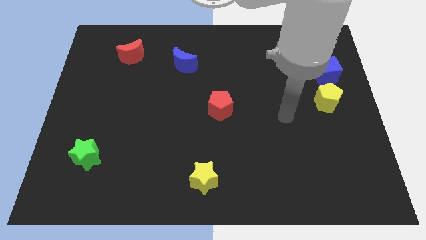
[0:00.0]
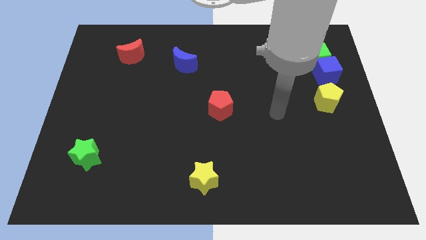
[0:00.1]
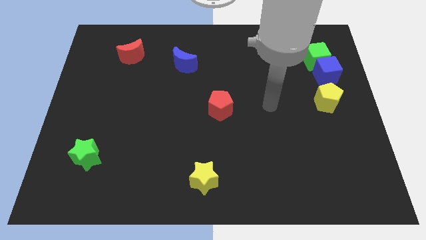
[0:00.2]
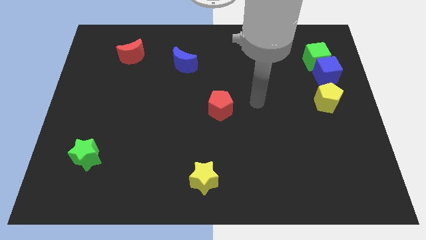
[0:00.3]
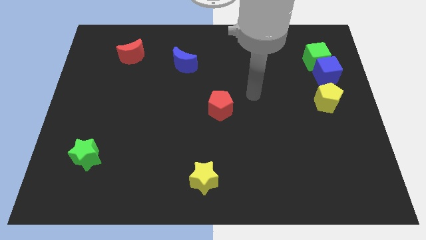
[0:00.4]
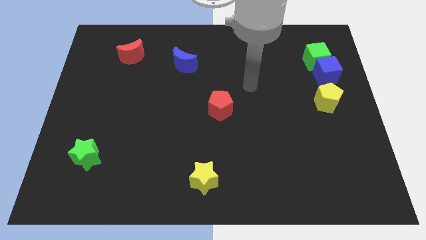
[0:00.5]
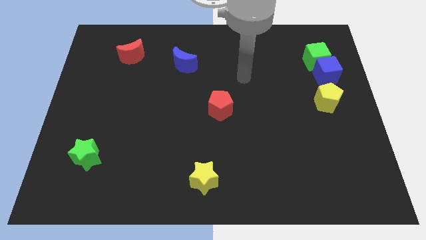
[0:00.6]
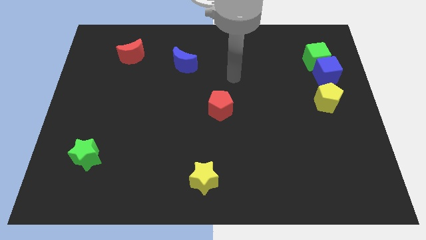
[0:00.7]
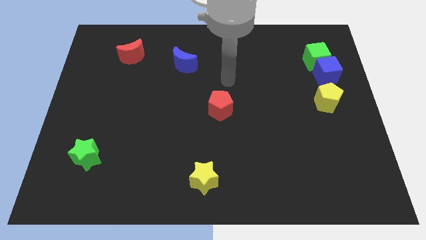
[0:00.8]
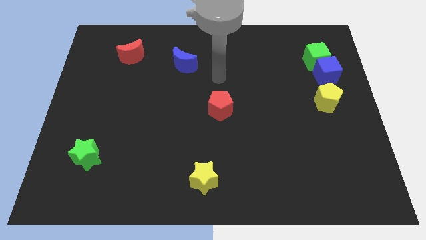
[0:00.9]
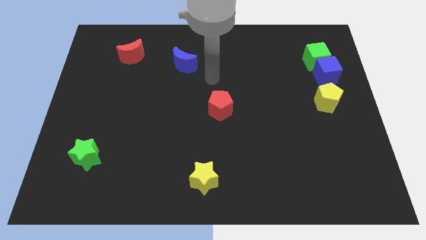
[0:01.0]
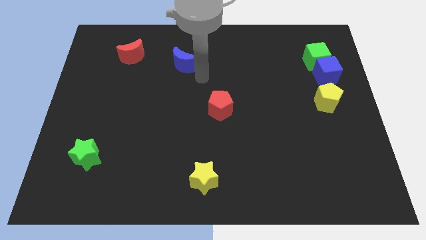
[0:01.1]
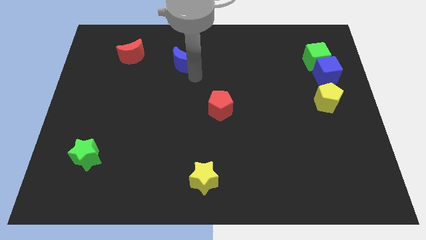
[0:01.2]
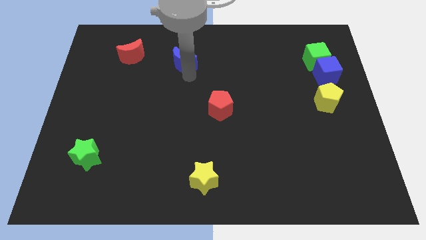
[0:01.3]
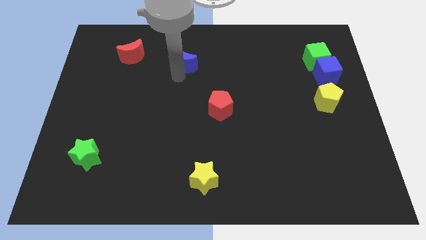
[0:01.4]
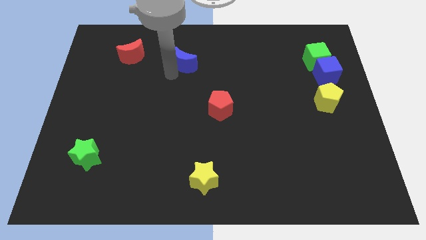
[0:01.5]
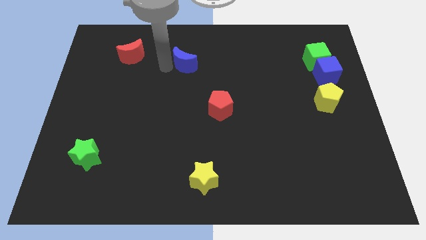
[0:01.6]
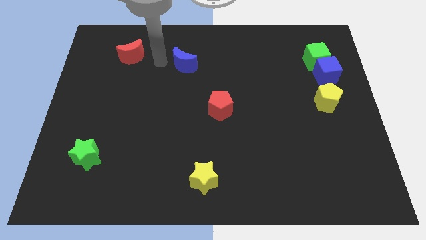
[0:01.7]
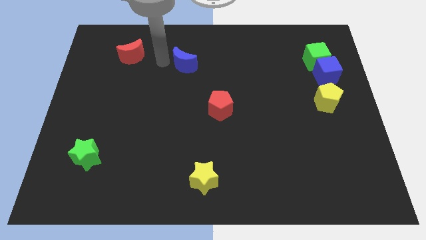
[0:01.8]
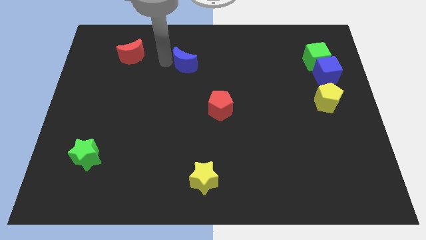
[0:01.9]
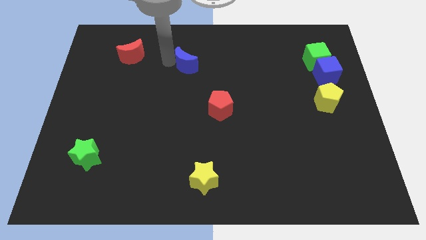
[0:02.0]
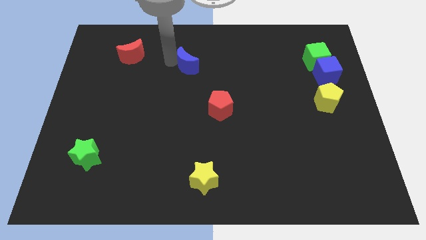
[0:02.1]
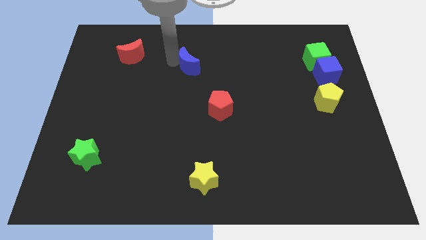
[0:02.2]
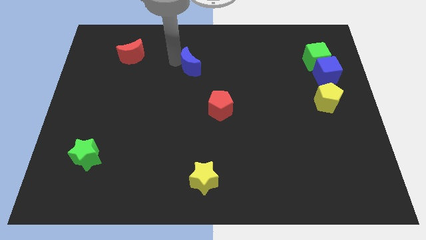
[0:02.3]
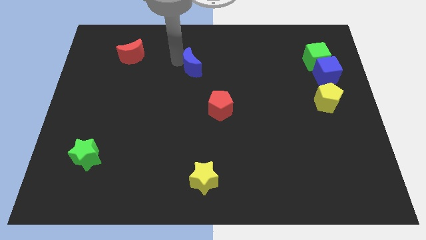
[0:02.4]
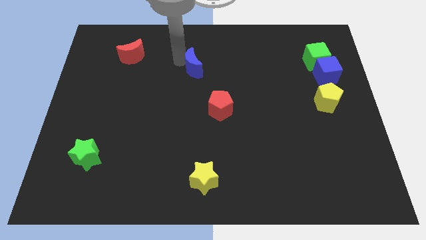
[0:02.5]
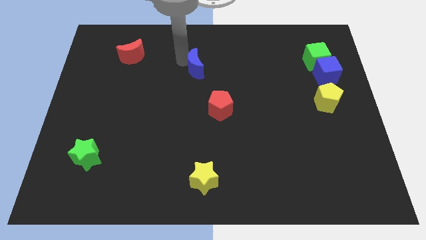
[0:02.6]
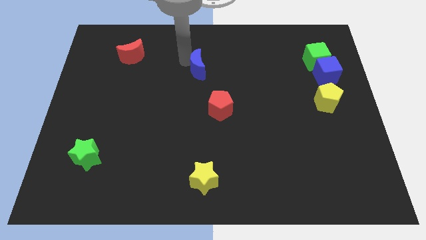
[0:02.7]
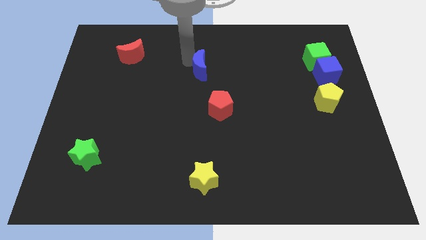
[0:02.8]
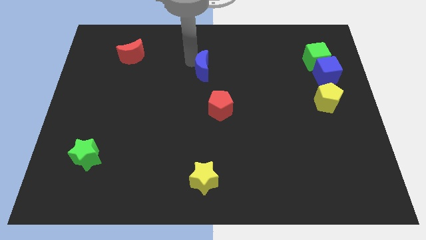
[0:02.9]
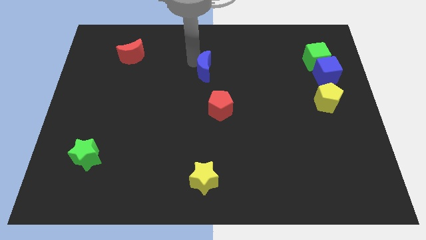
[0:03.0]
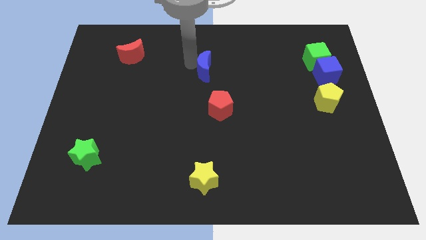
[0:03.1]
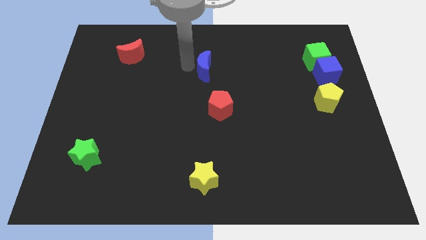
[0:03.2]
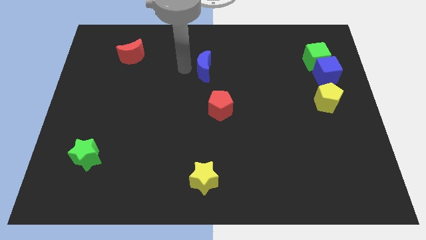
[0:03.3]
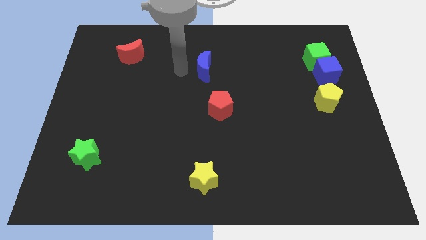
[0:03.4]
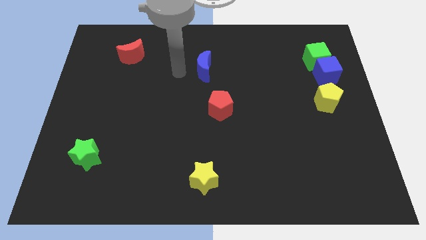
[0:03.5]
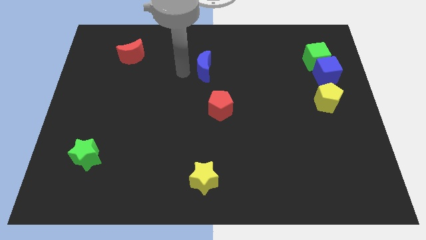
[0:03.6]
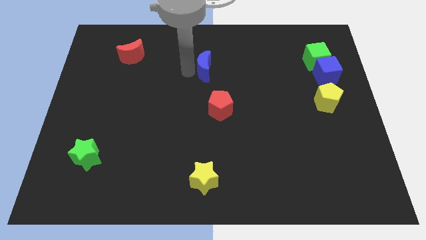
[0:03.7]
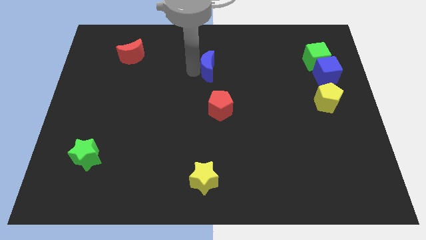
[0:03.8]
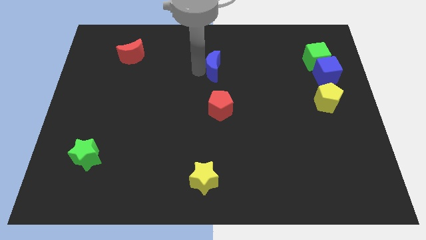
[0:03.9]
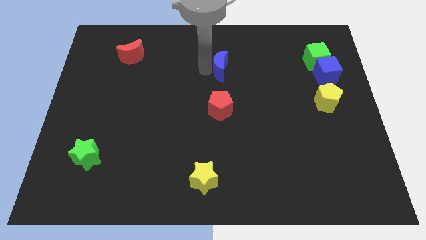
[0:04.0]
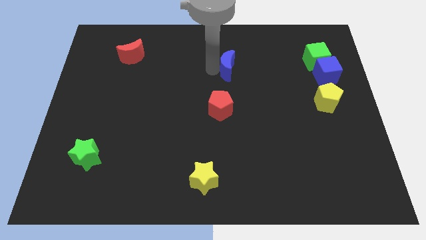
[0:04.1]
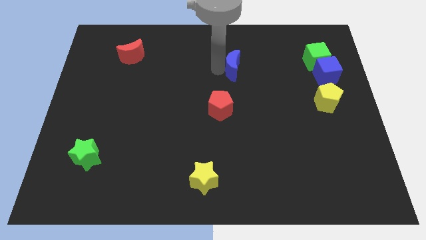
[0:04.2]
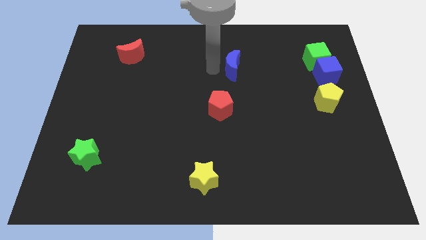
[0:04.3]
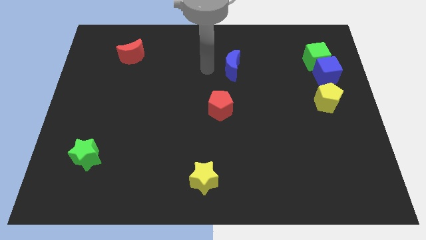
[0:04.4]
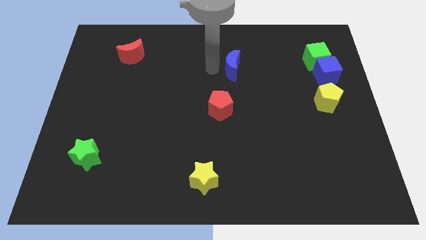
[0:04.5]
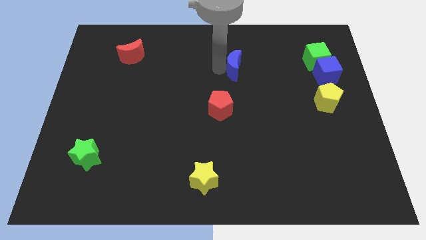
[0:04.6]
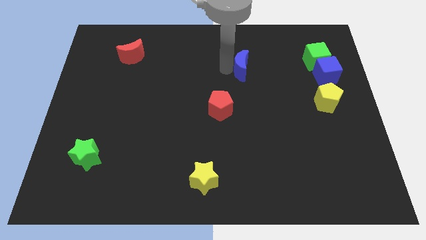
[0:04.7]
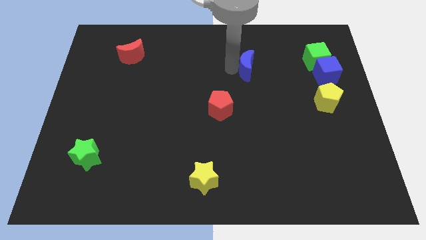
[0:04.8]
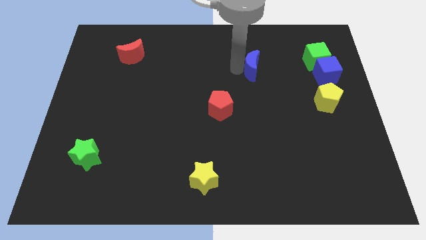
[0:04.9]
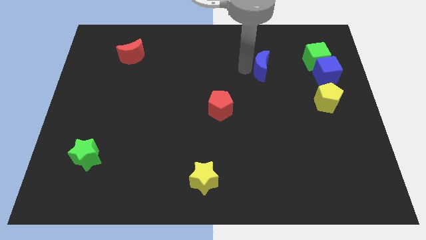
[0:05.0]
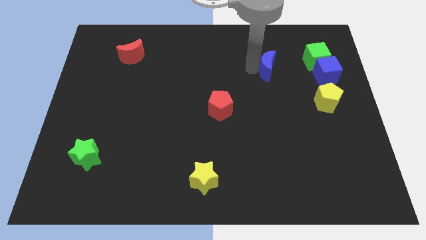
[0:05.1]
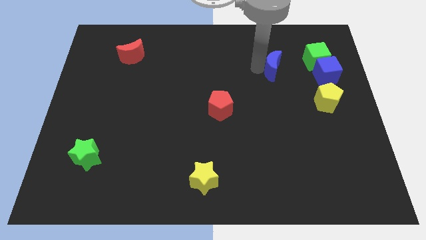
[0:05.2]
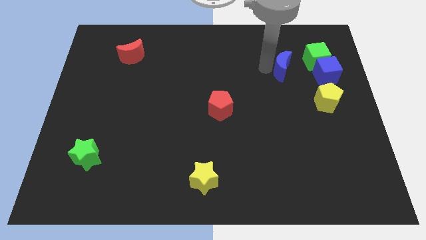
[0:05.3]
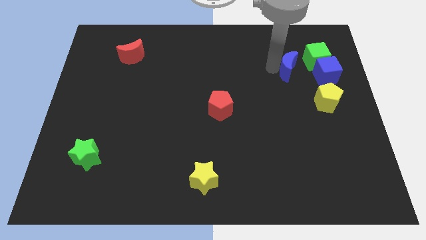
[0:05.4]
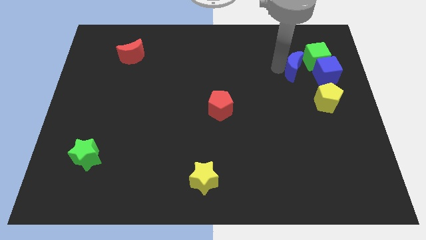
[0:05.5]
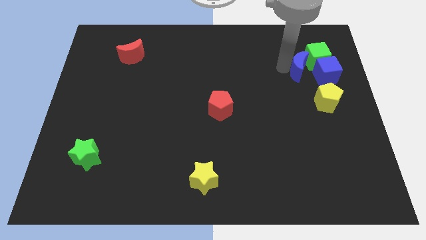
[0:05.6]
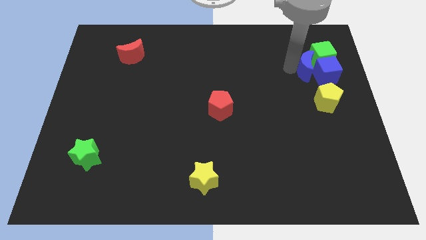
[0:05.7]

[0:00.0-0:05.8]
put the blue moon towards the blue cube

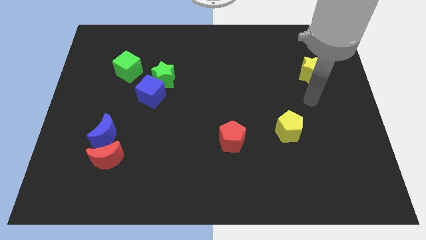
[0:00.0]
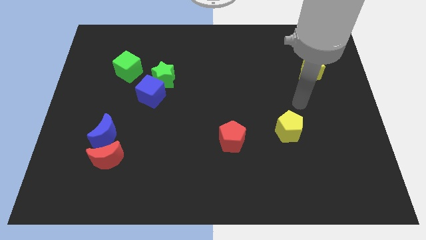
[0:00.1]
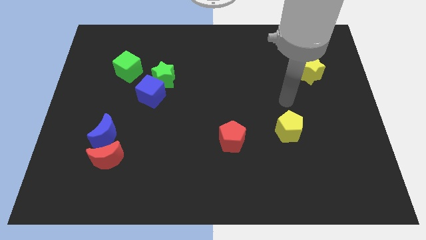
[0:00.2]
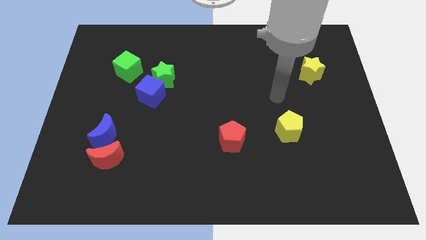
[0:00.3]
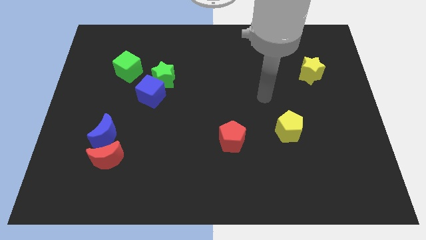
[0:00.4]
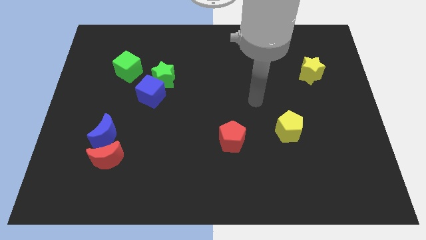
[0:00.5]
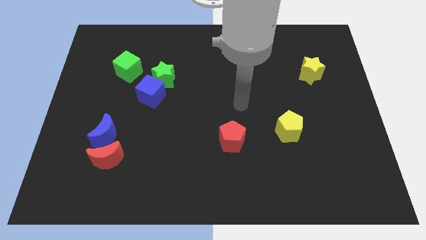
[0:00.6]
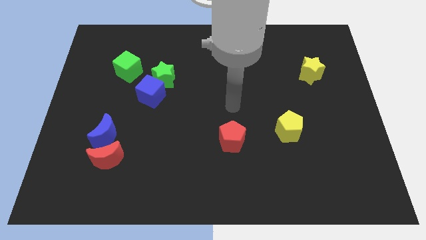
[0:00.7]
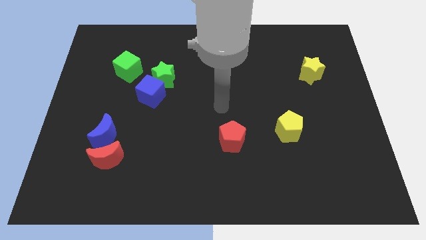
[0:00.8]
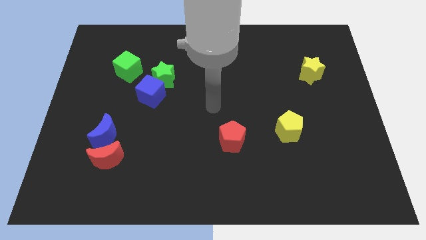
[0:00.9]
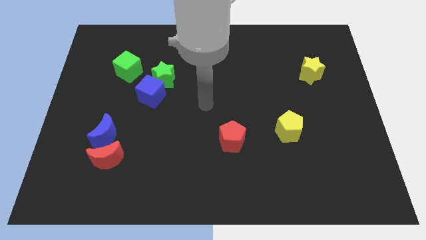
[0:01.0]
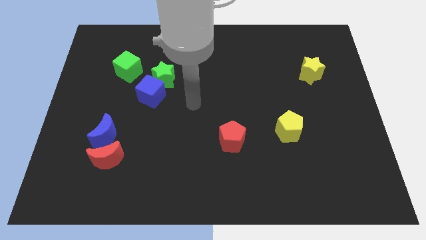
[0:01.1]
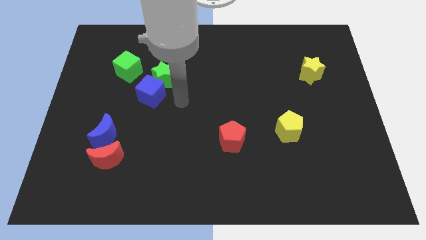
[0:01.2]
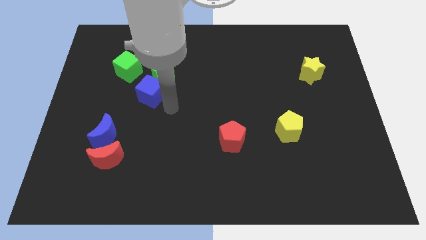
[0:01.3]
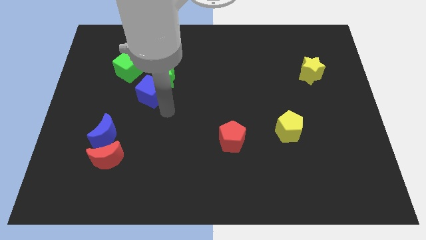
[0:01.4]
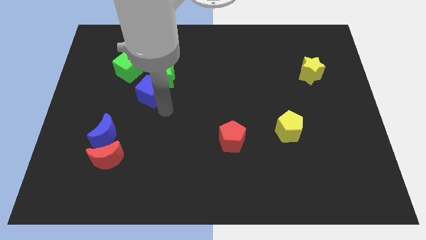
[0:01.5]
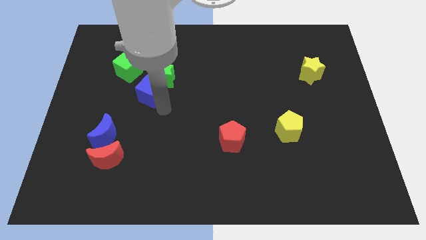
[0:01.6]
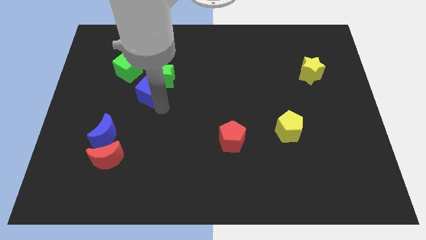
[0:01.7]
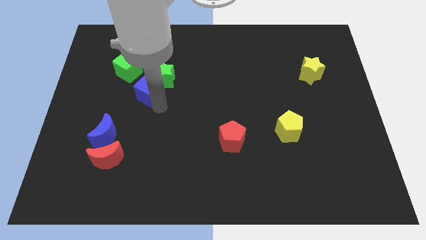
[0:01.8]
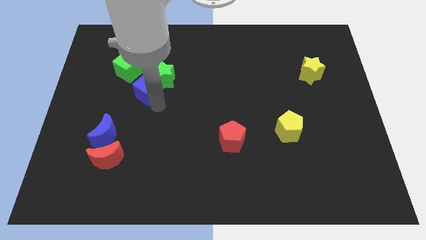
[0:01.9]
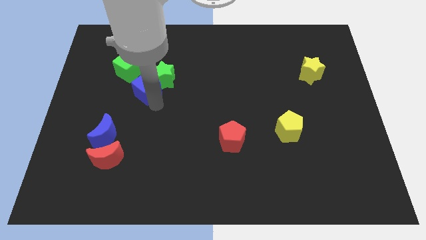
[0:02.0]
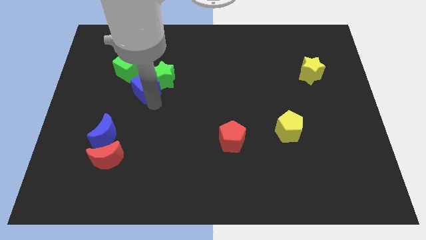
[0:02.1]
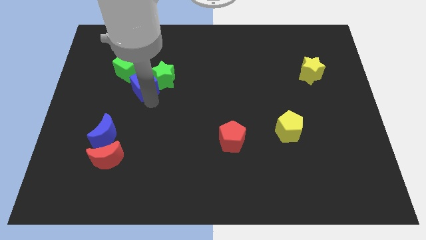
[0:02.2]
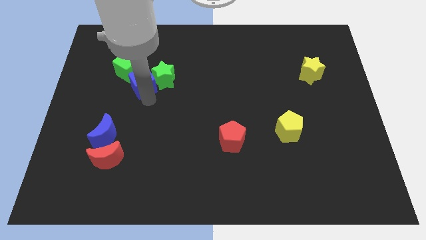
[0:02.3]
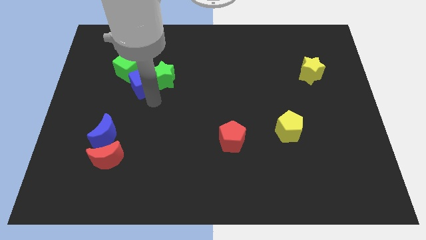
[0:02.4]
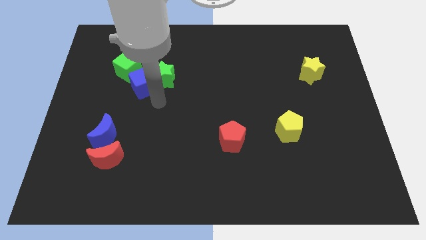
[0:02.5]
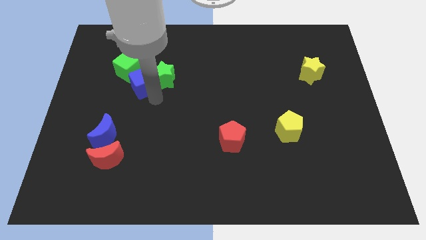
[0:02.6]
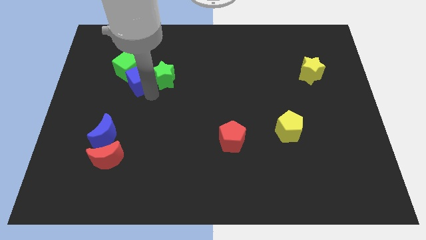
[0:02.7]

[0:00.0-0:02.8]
slide the blue cube to the green cube
